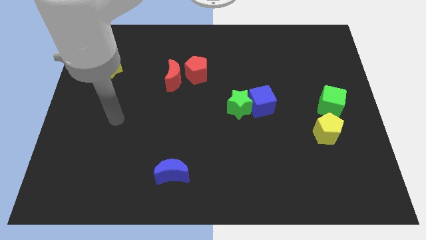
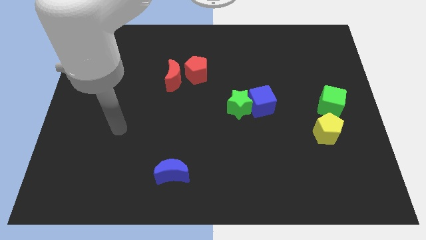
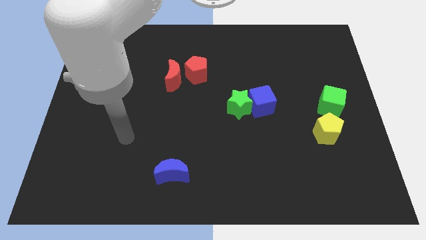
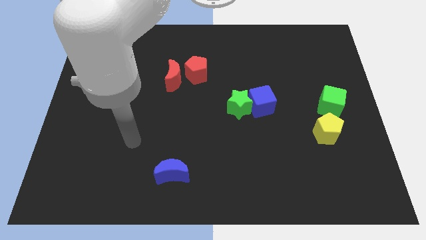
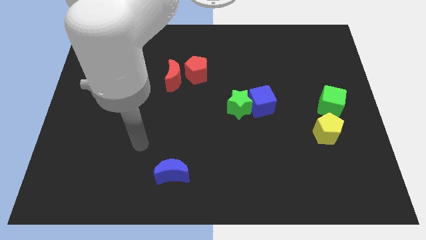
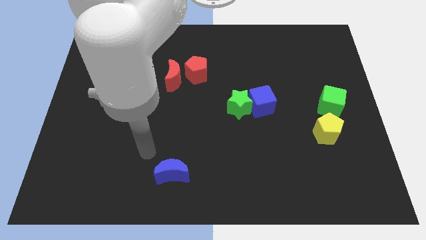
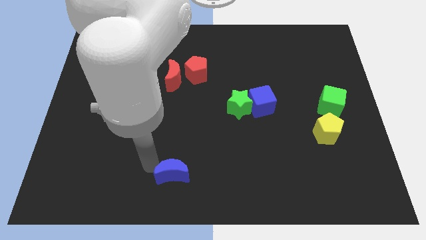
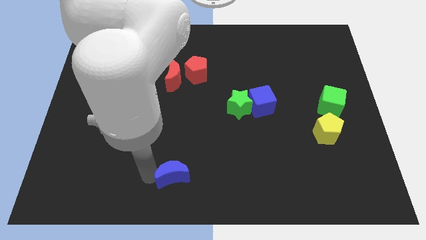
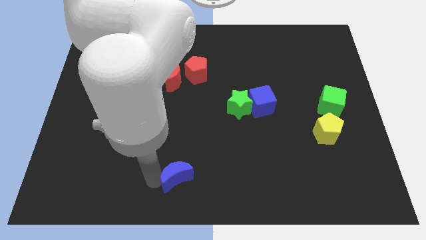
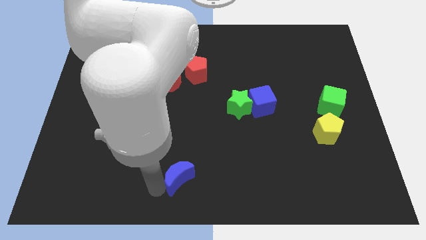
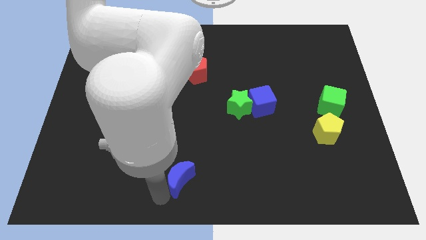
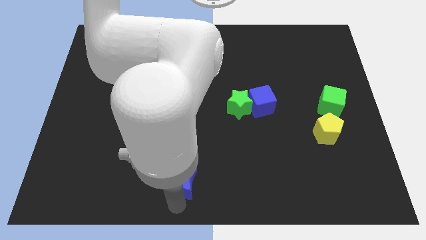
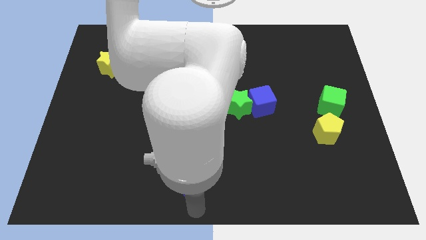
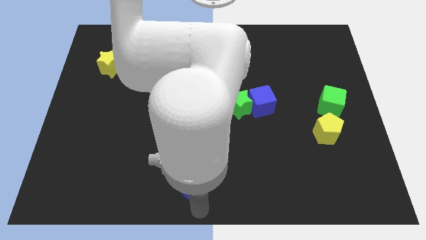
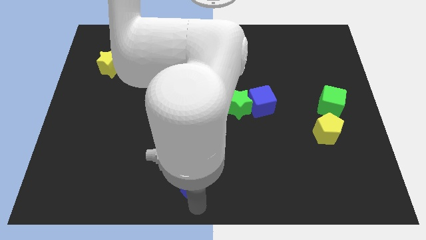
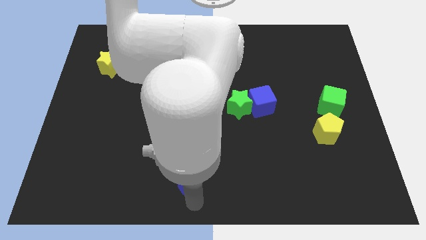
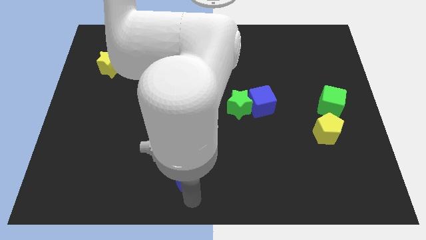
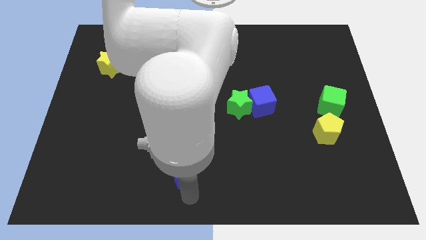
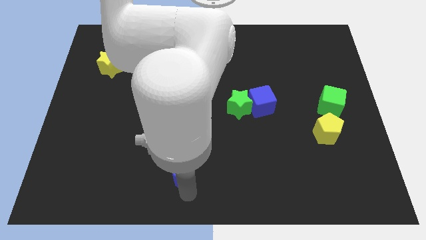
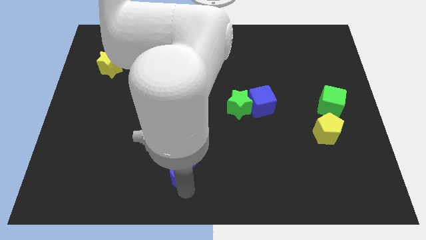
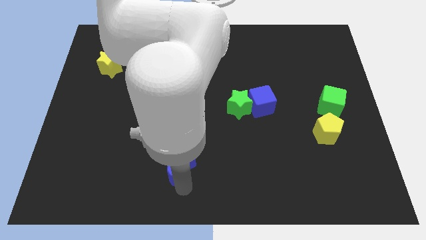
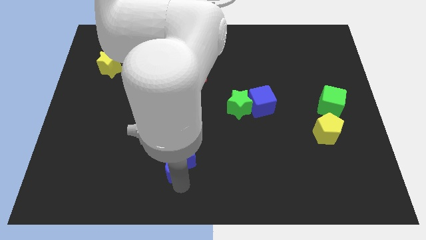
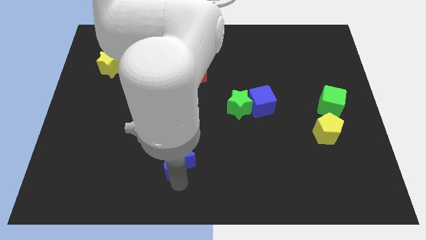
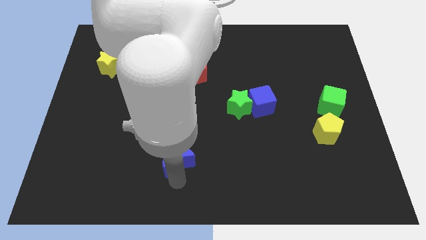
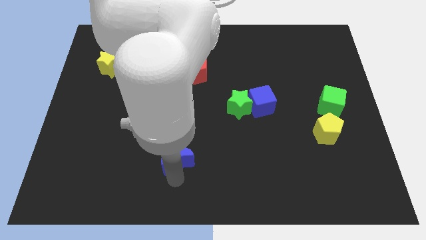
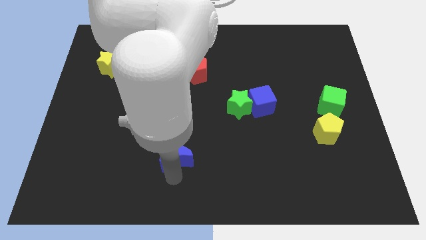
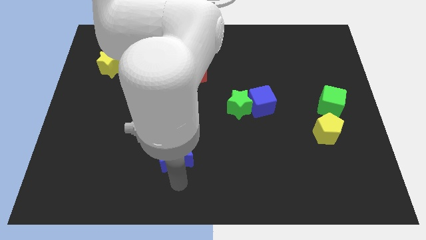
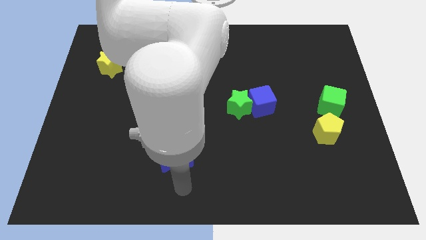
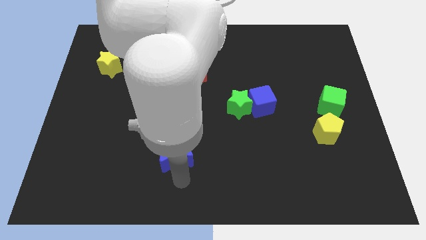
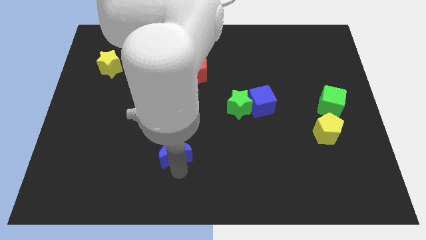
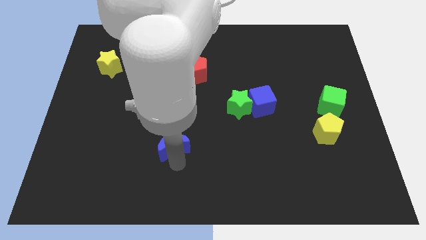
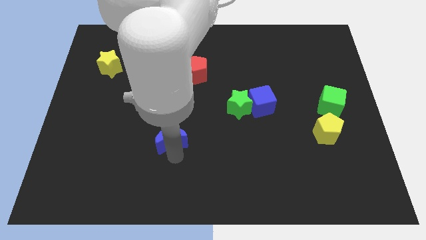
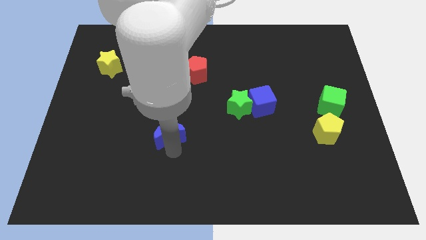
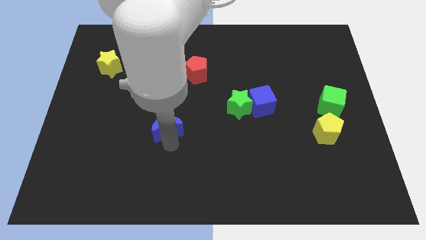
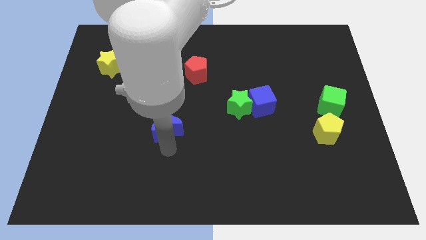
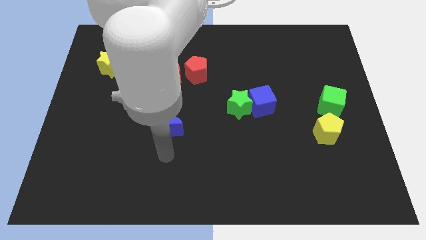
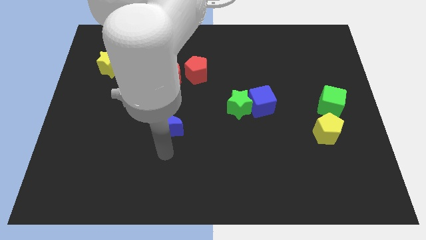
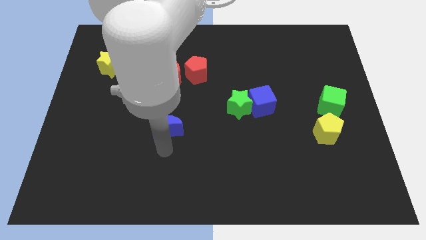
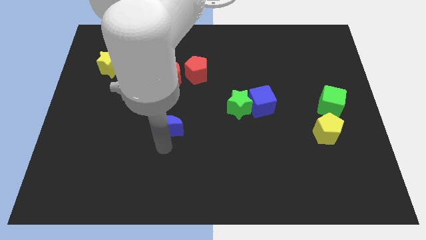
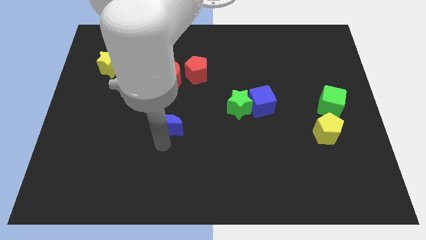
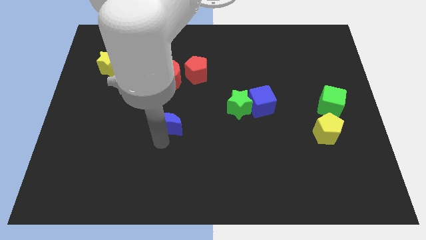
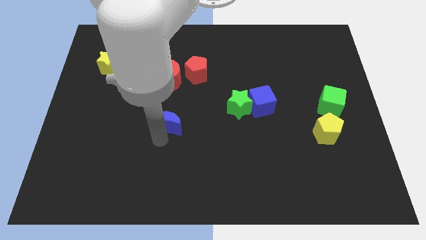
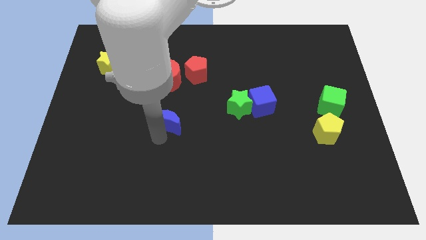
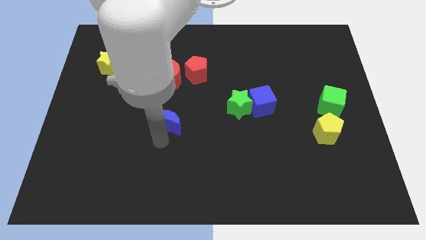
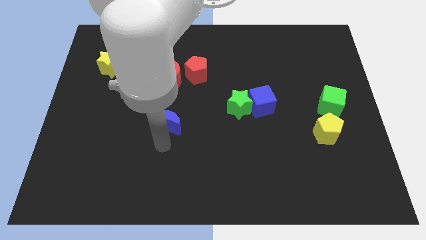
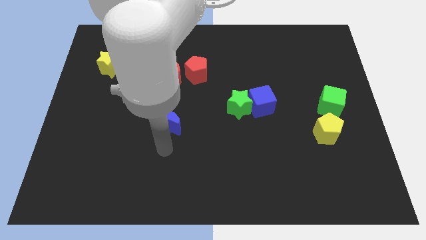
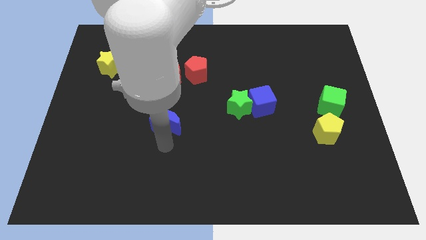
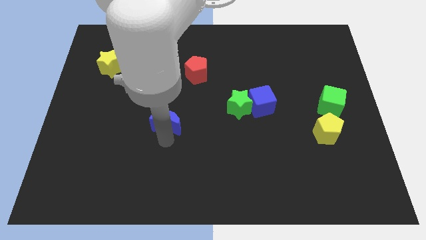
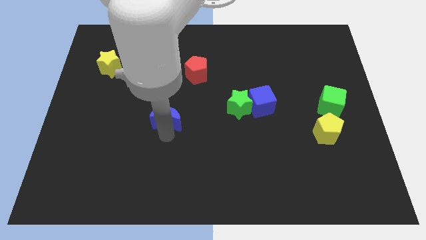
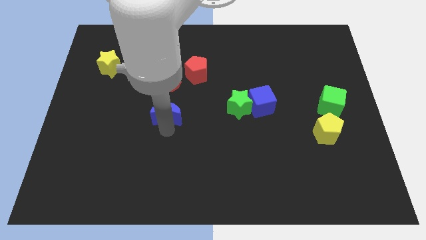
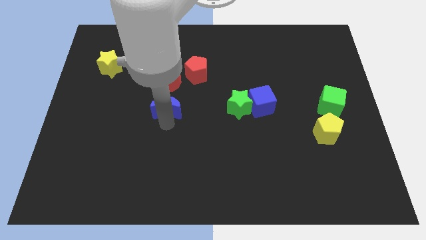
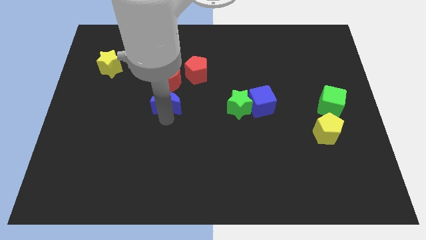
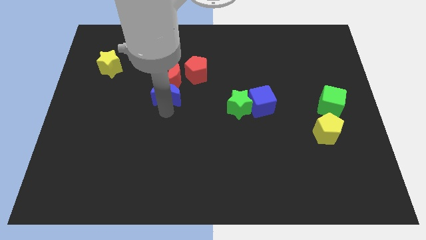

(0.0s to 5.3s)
move the blue moon towards the red moon

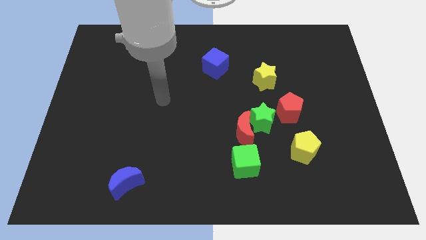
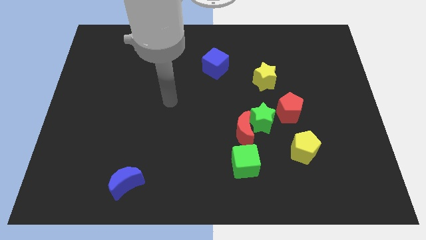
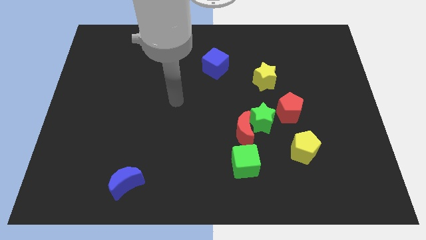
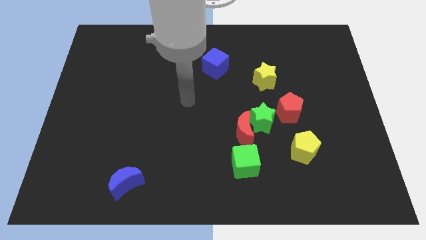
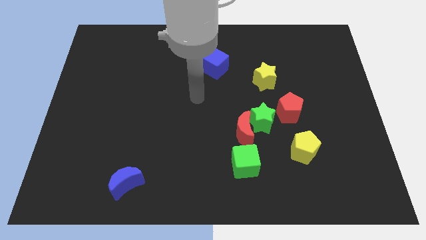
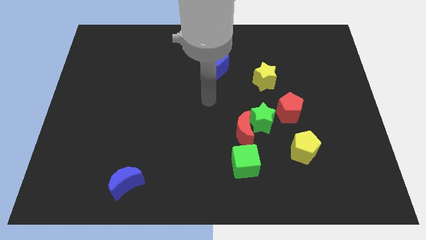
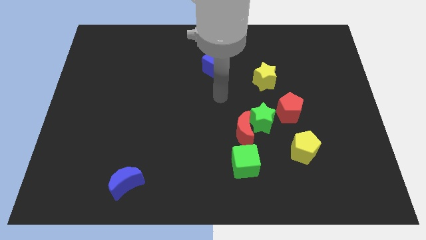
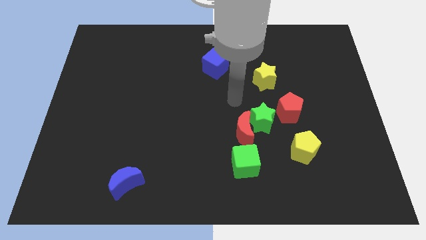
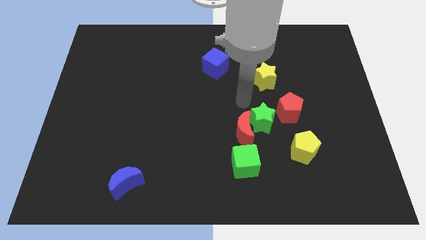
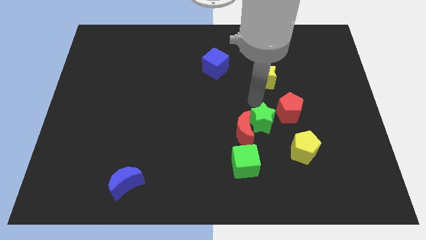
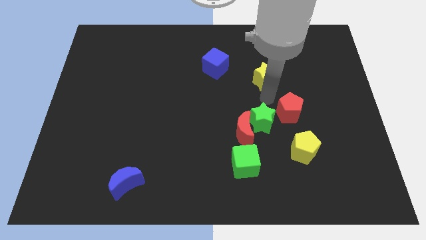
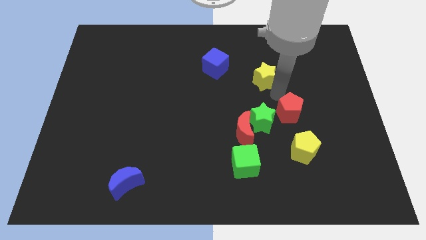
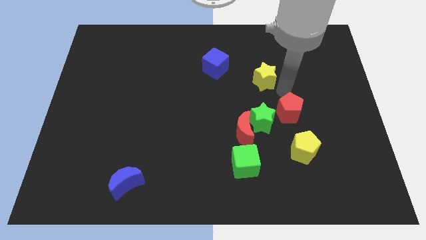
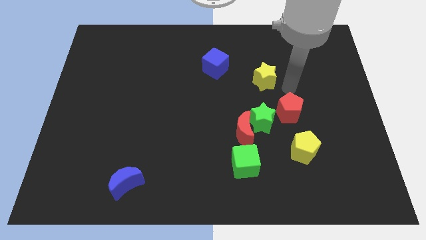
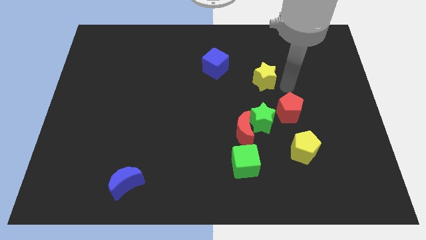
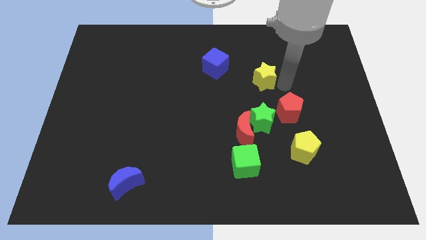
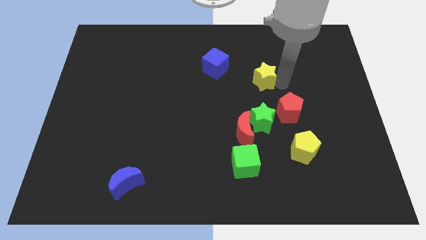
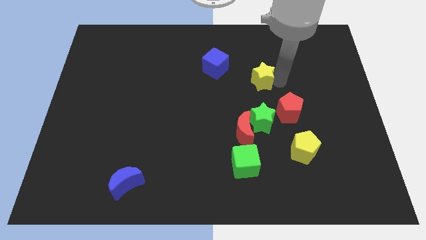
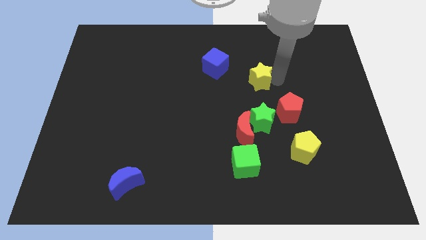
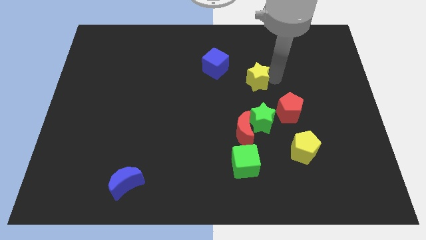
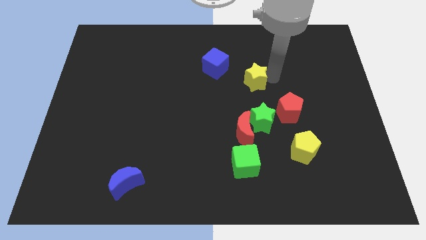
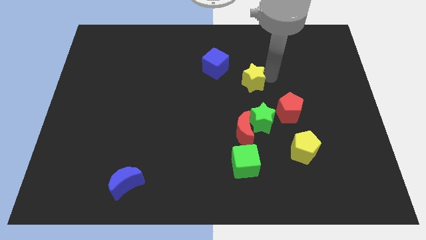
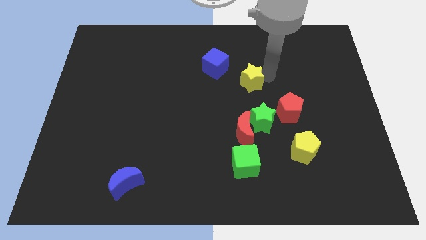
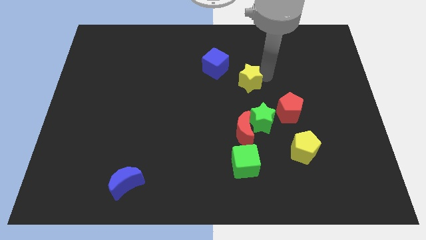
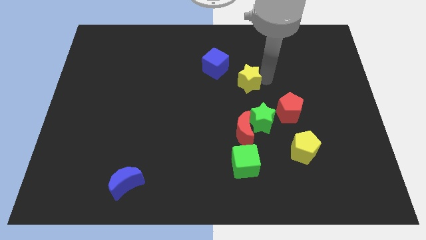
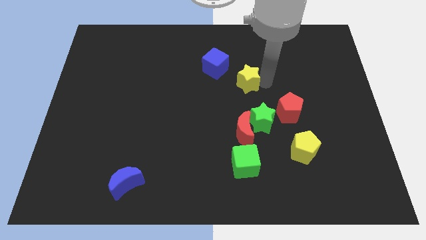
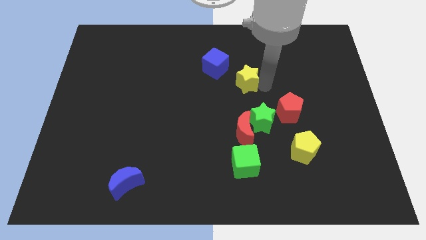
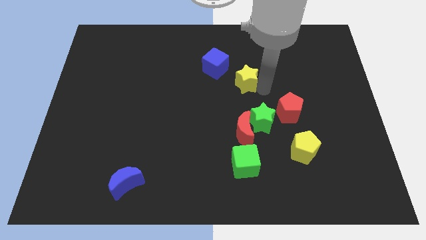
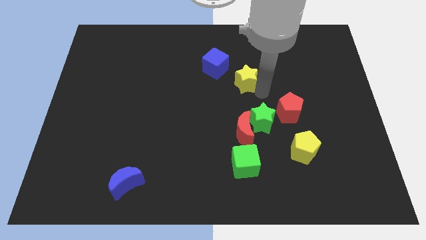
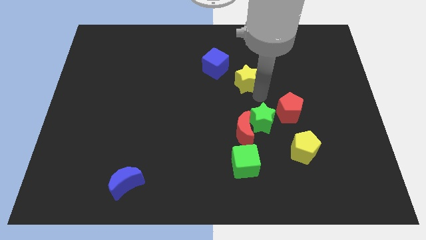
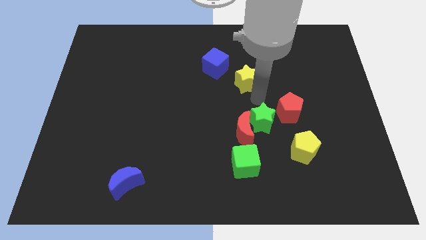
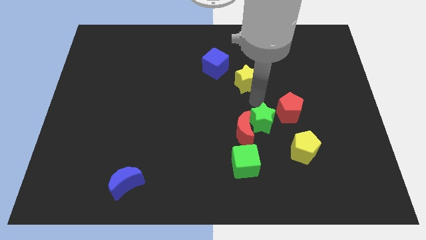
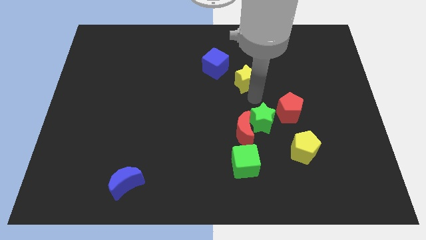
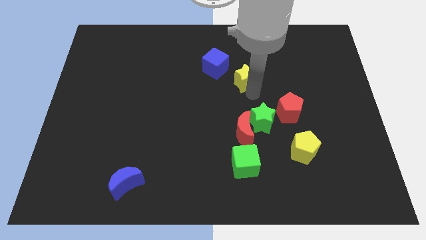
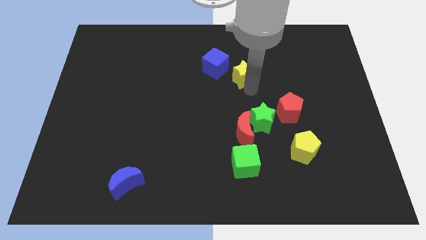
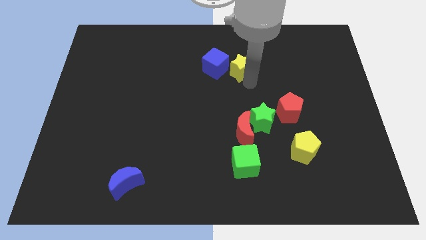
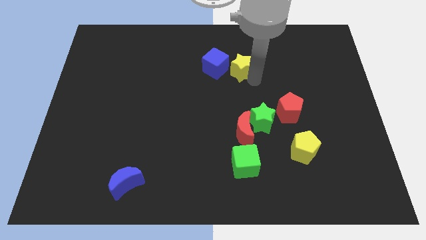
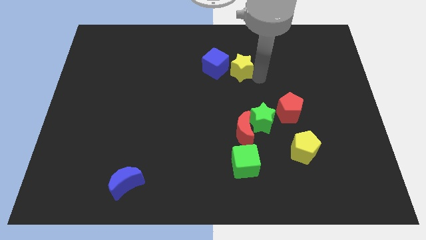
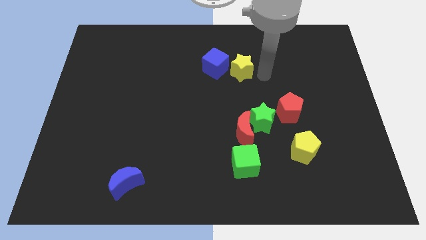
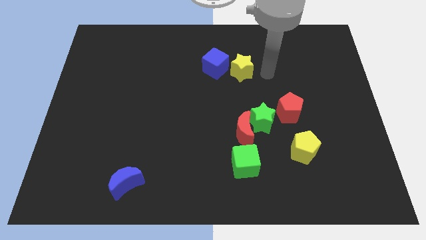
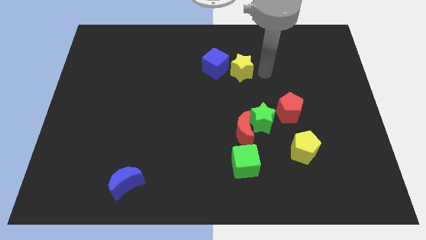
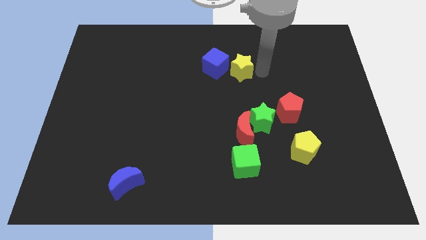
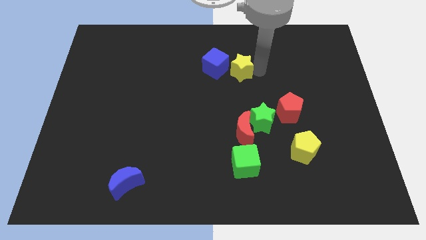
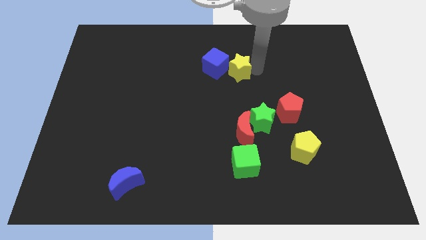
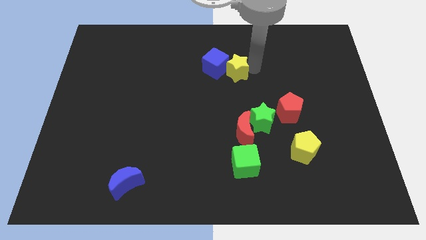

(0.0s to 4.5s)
push the yellow star close to the blue cube
